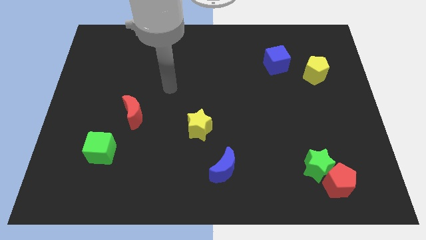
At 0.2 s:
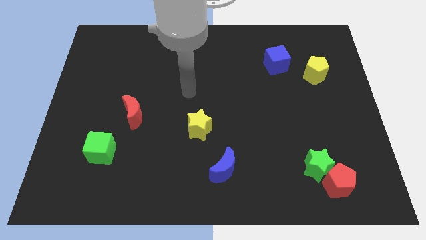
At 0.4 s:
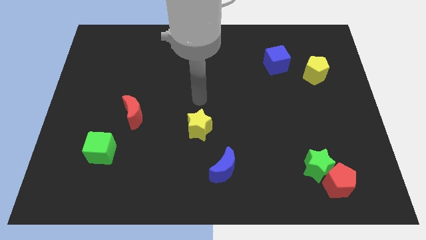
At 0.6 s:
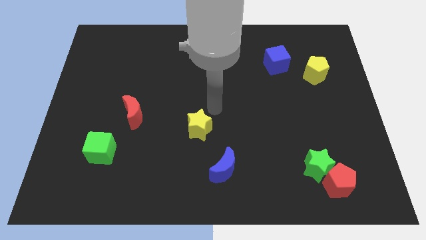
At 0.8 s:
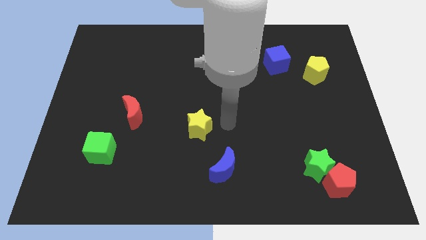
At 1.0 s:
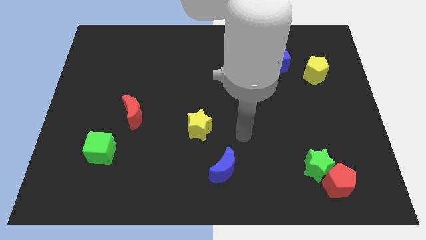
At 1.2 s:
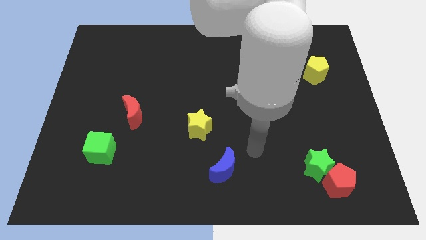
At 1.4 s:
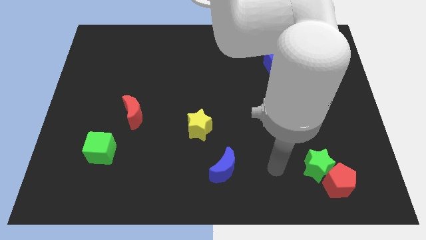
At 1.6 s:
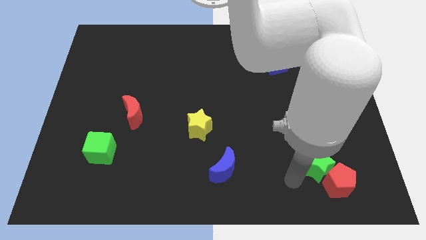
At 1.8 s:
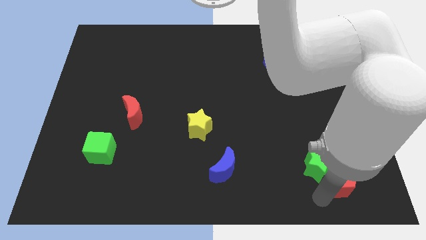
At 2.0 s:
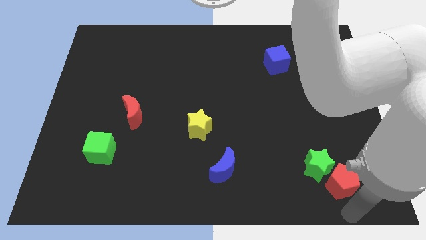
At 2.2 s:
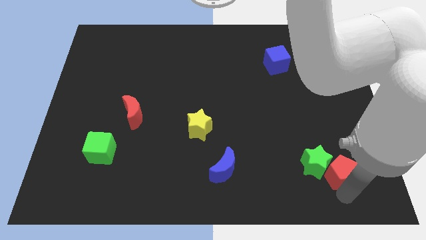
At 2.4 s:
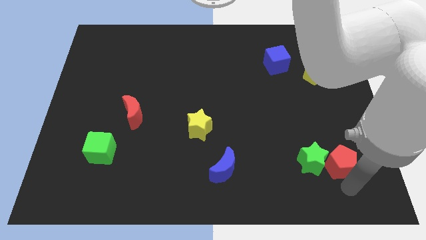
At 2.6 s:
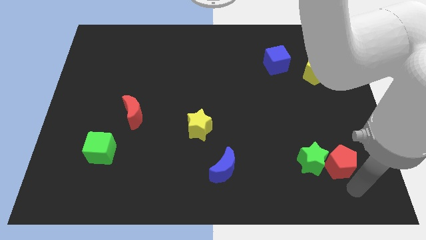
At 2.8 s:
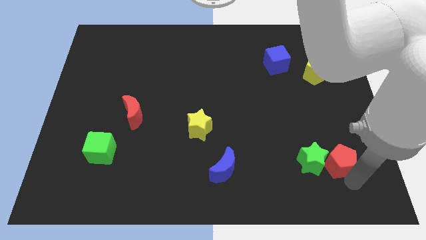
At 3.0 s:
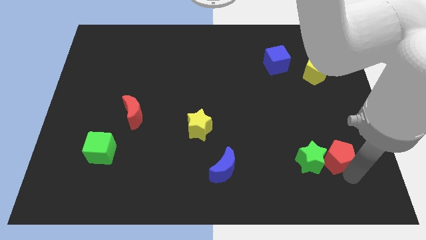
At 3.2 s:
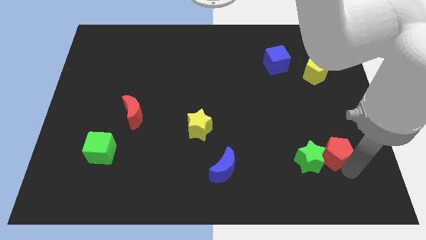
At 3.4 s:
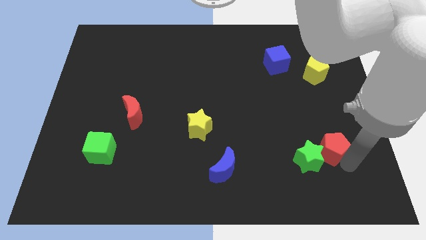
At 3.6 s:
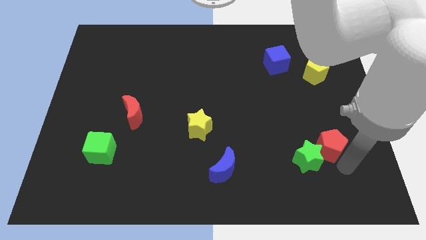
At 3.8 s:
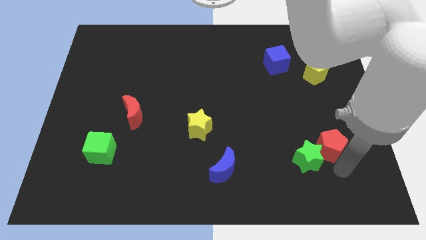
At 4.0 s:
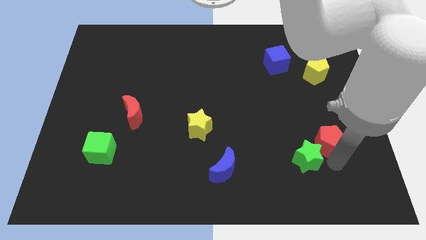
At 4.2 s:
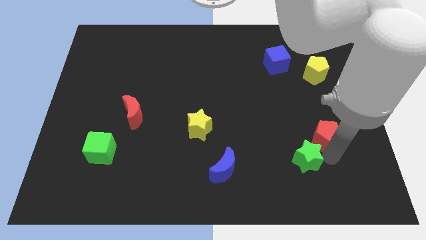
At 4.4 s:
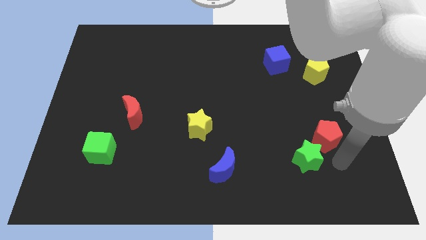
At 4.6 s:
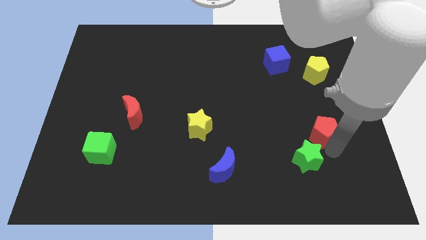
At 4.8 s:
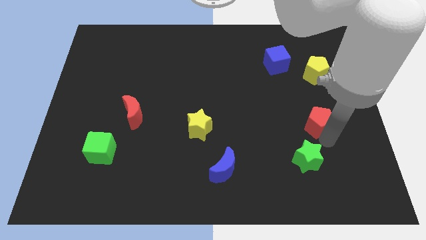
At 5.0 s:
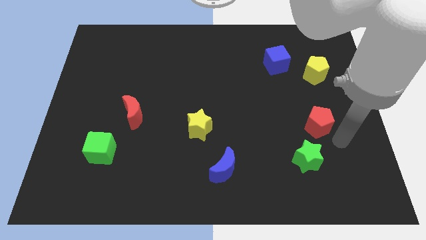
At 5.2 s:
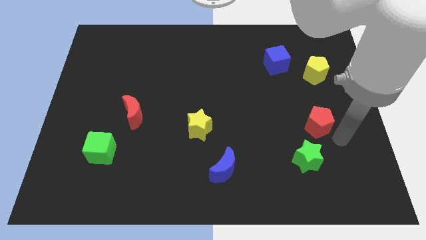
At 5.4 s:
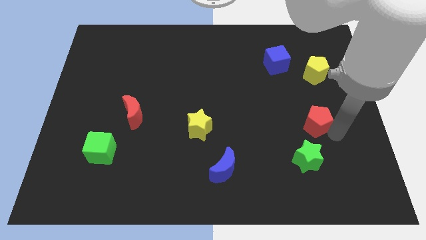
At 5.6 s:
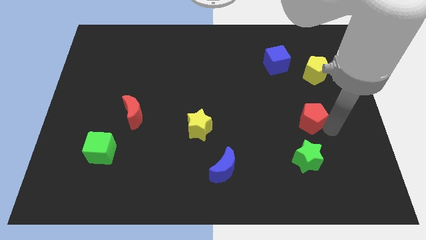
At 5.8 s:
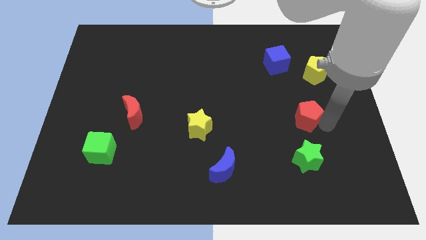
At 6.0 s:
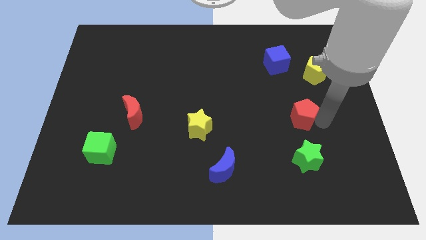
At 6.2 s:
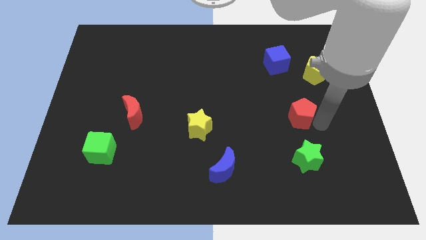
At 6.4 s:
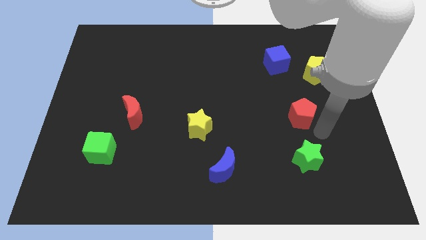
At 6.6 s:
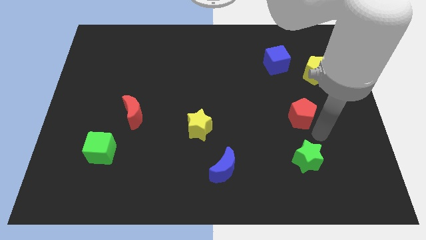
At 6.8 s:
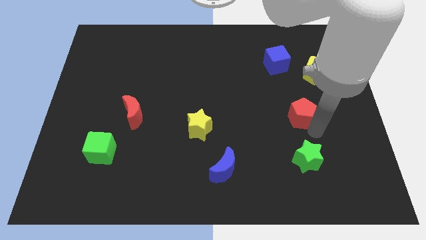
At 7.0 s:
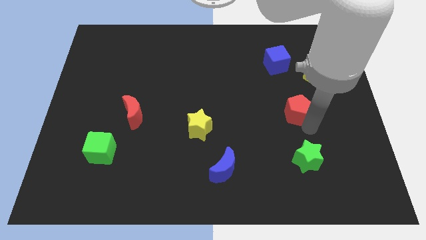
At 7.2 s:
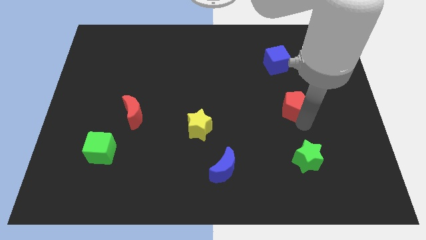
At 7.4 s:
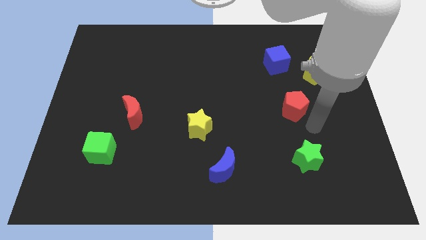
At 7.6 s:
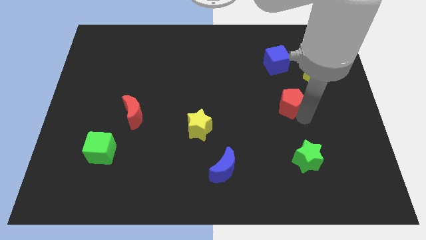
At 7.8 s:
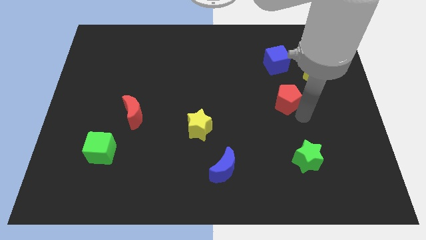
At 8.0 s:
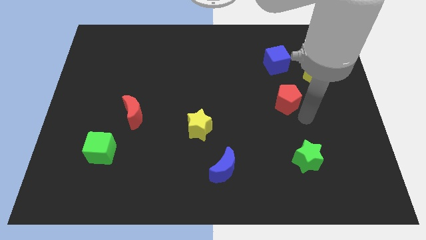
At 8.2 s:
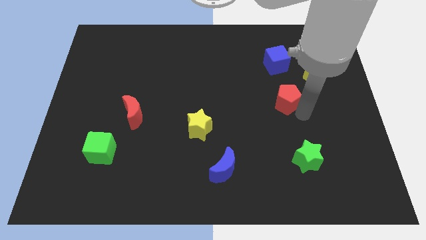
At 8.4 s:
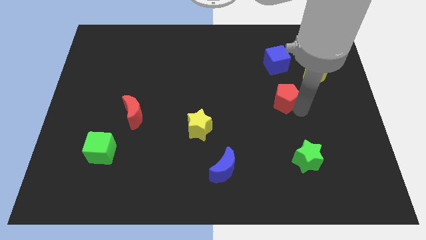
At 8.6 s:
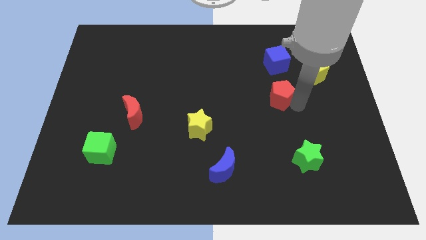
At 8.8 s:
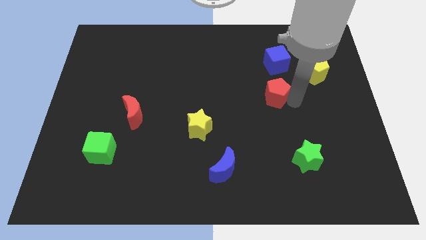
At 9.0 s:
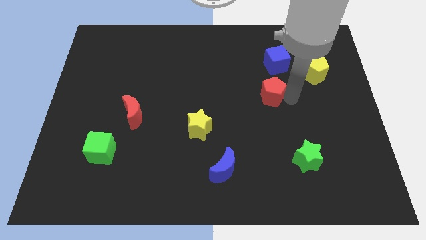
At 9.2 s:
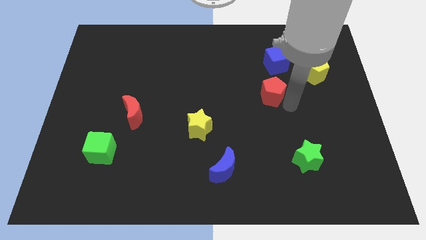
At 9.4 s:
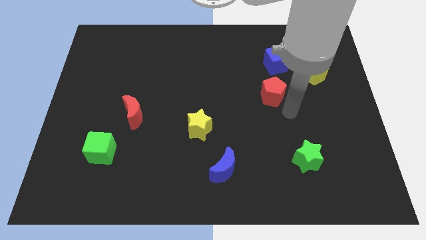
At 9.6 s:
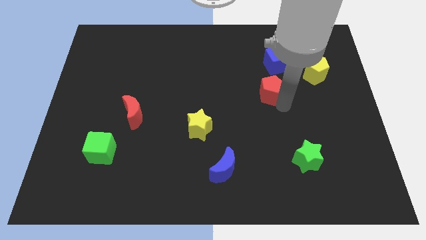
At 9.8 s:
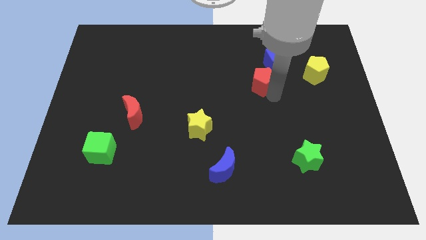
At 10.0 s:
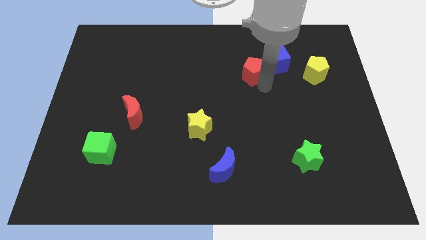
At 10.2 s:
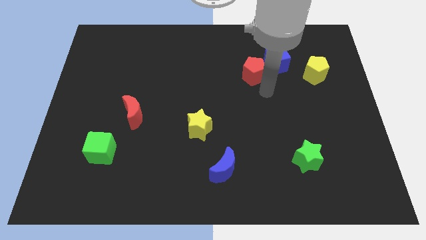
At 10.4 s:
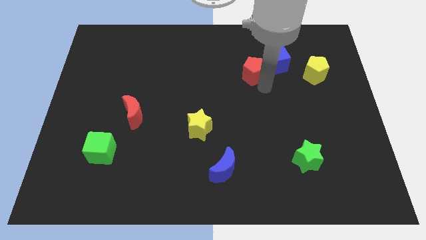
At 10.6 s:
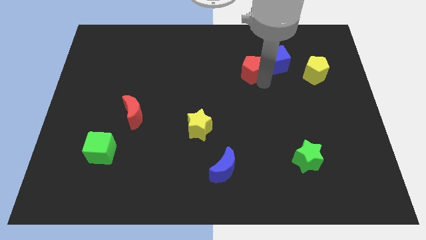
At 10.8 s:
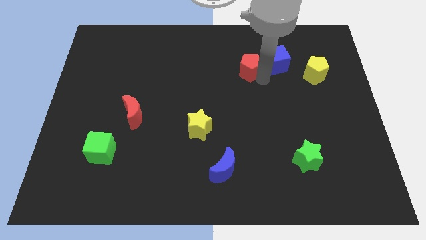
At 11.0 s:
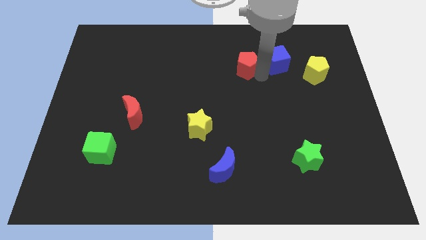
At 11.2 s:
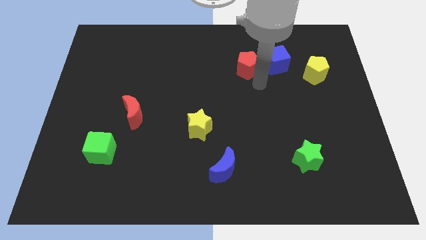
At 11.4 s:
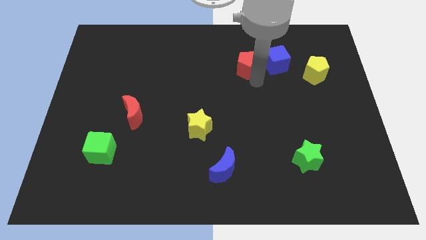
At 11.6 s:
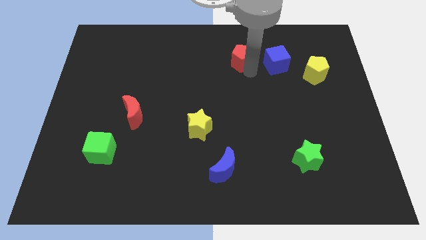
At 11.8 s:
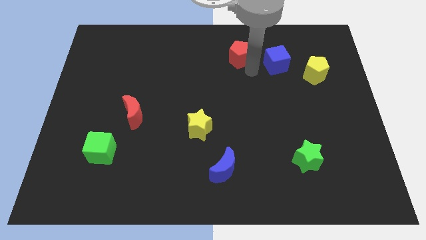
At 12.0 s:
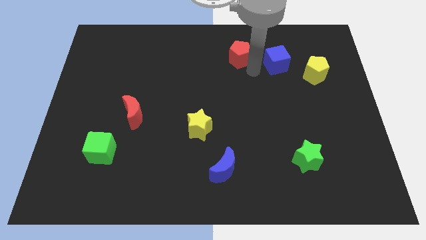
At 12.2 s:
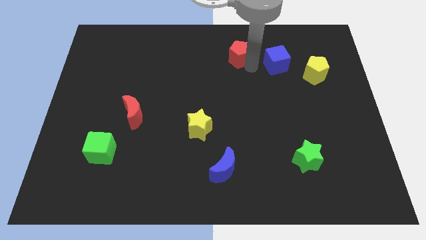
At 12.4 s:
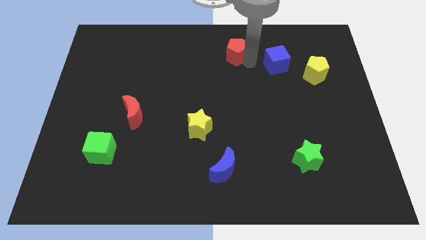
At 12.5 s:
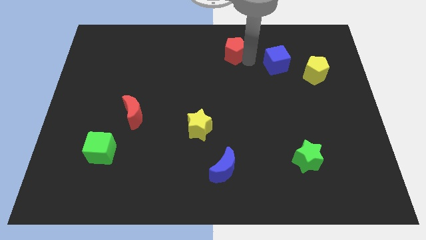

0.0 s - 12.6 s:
push the red pentagon to the towards your base

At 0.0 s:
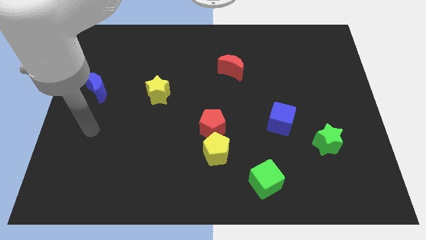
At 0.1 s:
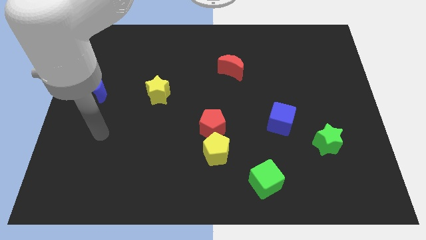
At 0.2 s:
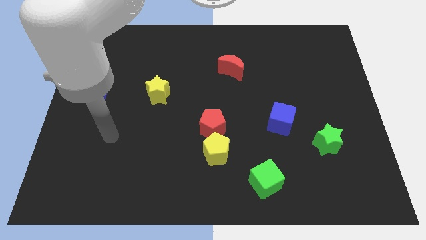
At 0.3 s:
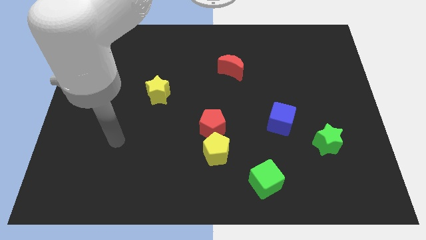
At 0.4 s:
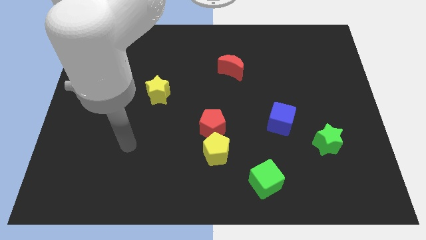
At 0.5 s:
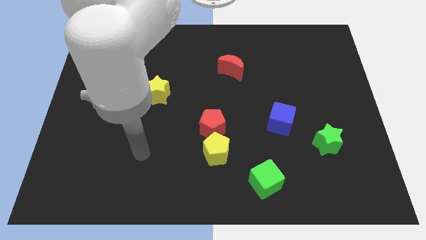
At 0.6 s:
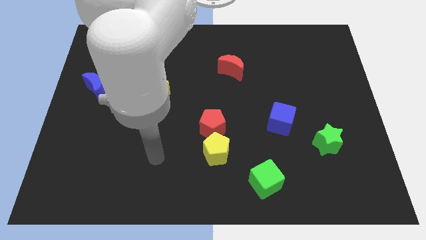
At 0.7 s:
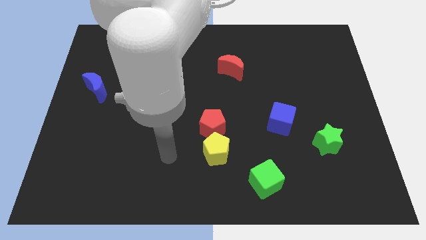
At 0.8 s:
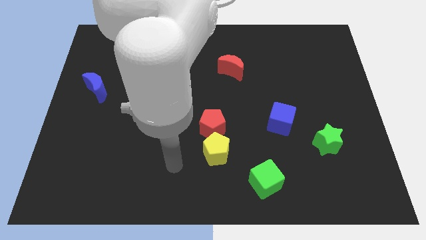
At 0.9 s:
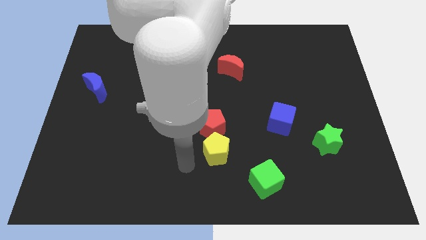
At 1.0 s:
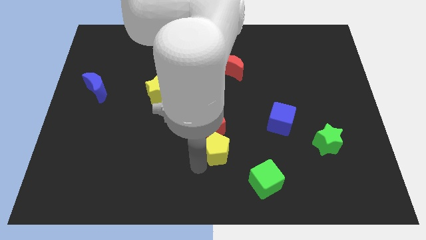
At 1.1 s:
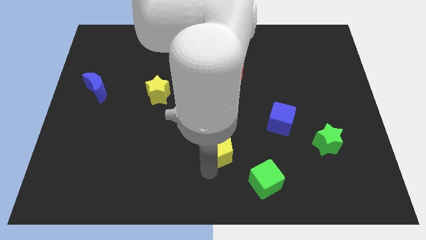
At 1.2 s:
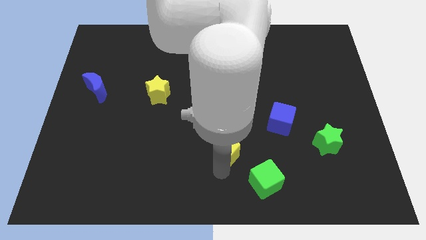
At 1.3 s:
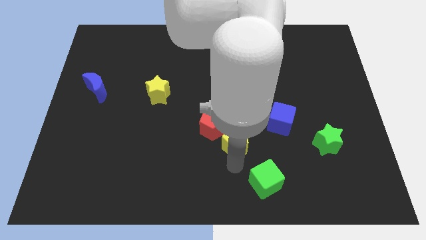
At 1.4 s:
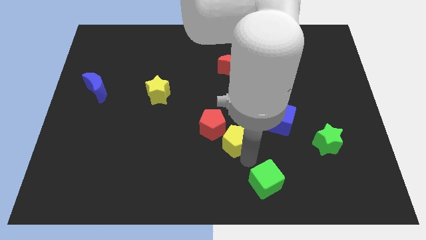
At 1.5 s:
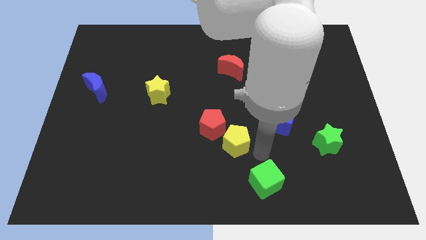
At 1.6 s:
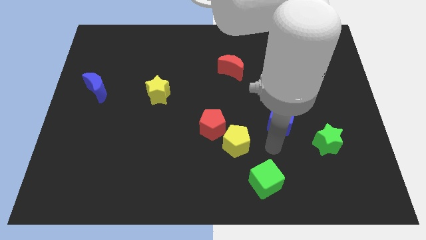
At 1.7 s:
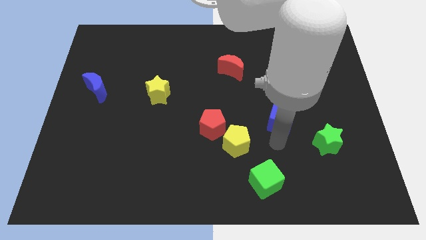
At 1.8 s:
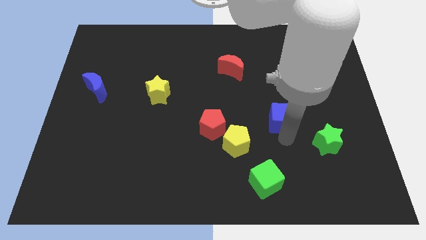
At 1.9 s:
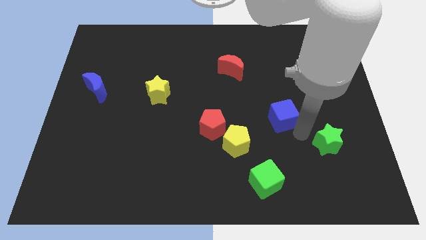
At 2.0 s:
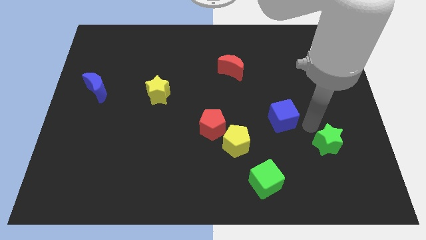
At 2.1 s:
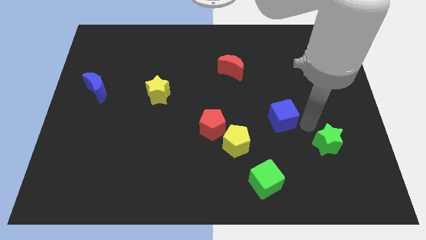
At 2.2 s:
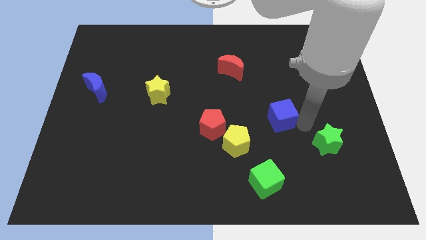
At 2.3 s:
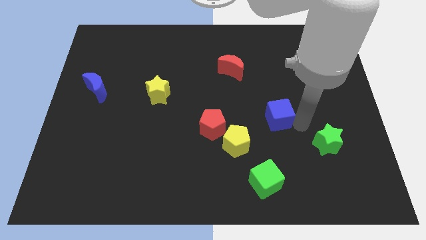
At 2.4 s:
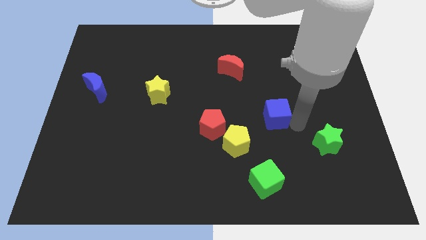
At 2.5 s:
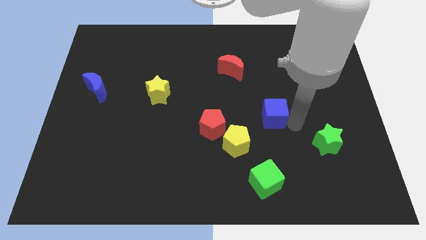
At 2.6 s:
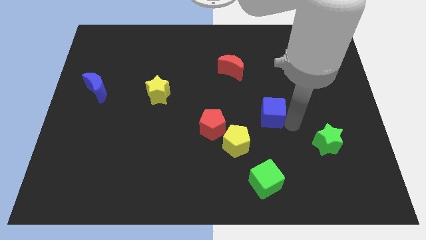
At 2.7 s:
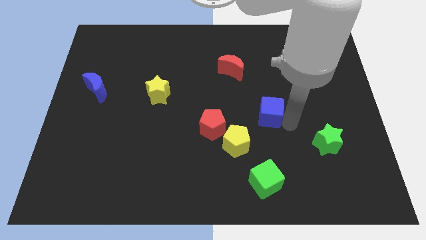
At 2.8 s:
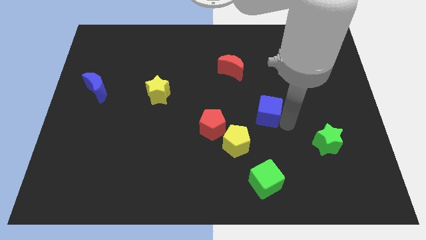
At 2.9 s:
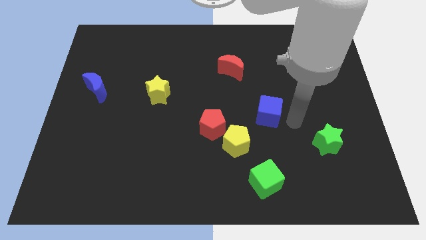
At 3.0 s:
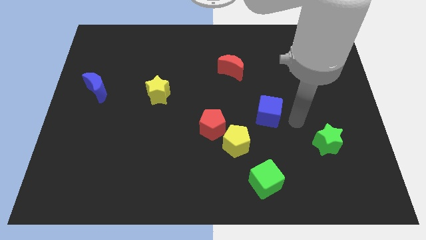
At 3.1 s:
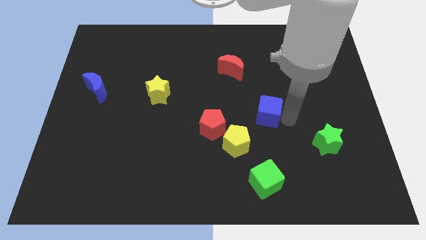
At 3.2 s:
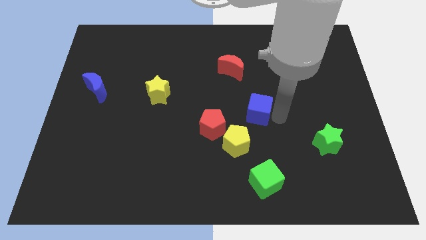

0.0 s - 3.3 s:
push the blue cube to the center
